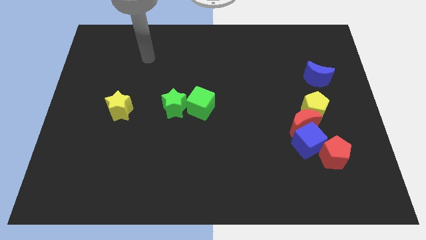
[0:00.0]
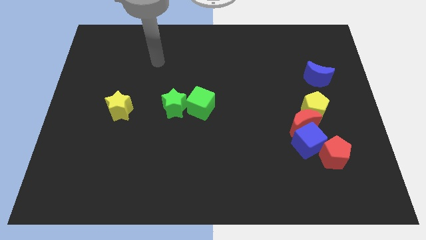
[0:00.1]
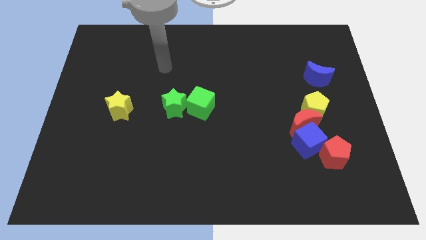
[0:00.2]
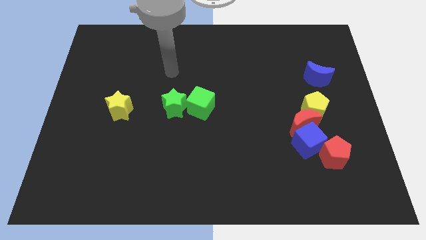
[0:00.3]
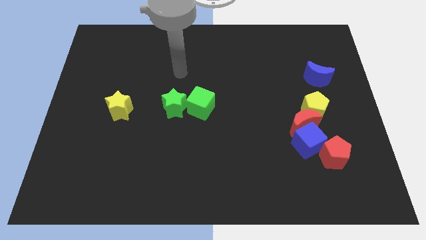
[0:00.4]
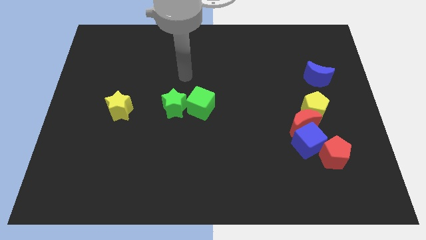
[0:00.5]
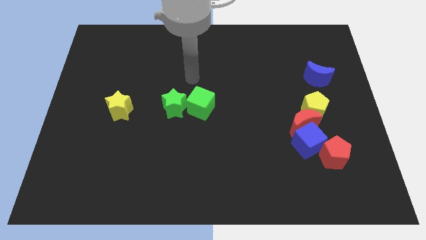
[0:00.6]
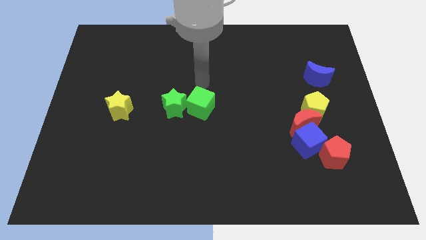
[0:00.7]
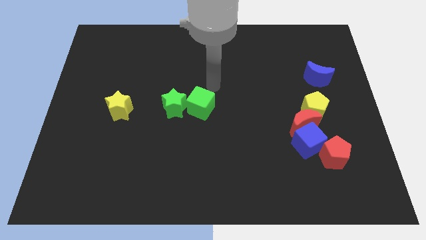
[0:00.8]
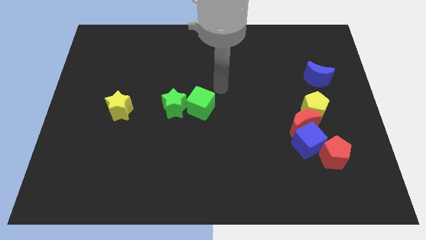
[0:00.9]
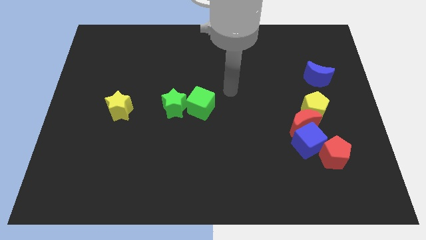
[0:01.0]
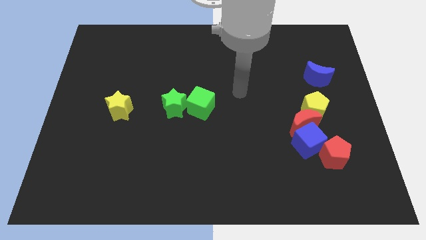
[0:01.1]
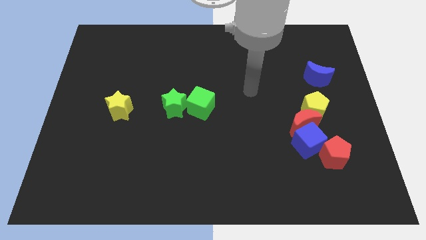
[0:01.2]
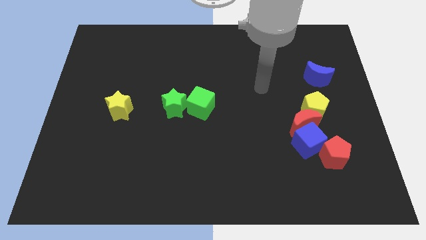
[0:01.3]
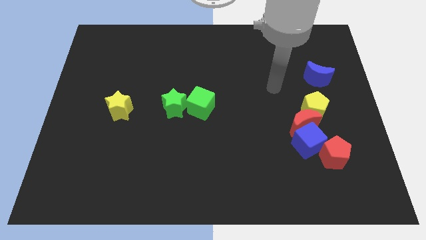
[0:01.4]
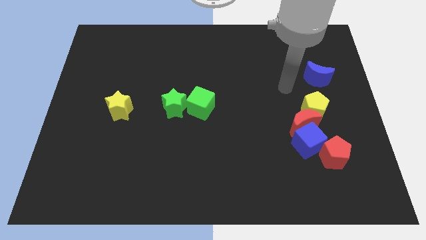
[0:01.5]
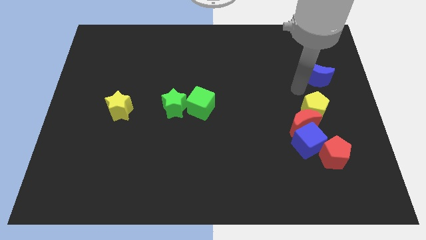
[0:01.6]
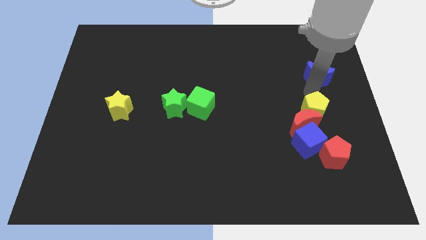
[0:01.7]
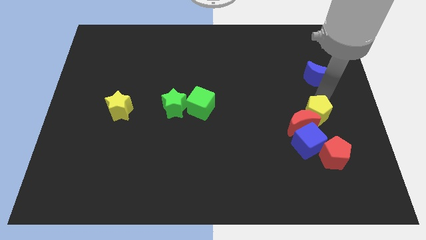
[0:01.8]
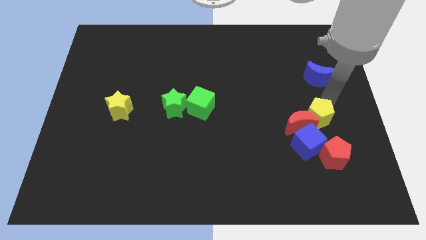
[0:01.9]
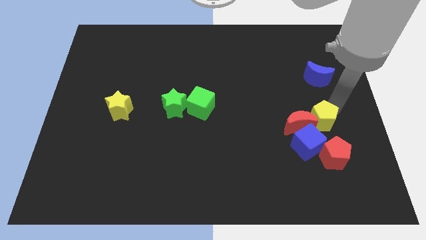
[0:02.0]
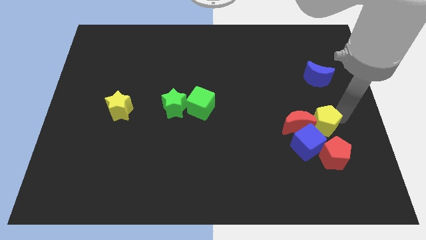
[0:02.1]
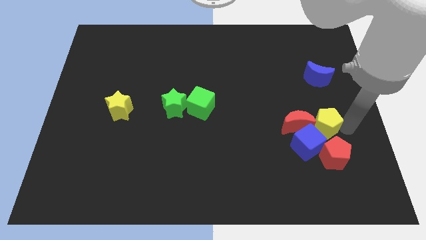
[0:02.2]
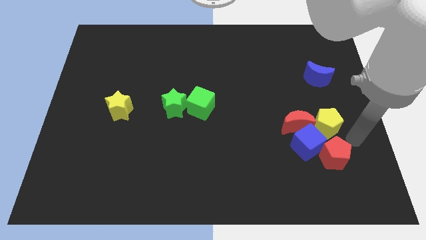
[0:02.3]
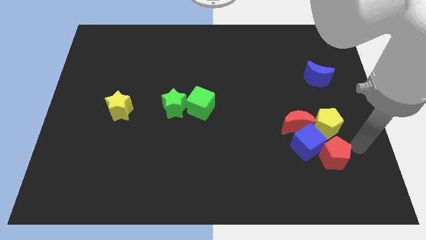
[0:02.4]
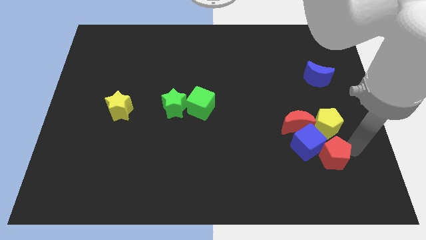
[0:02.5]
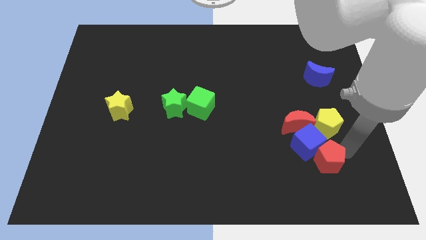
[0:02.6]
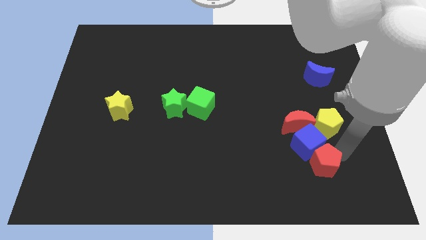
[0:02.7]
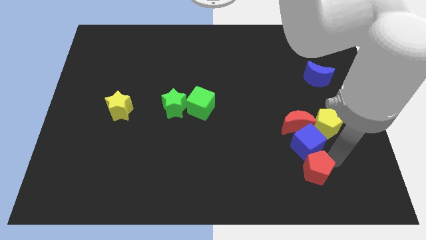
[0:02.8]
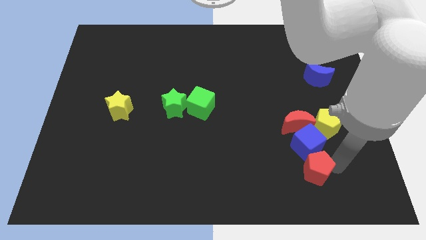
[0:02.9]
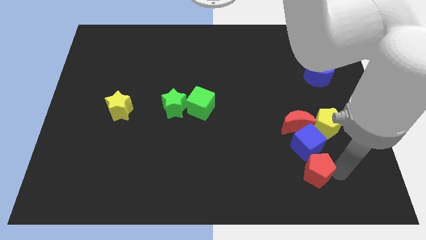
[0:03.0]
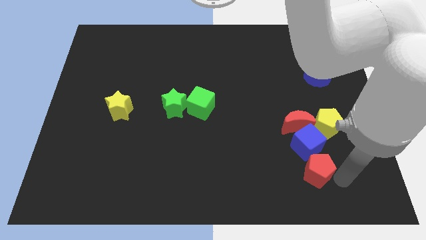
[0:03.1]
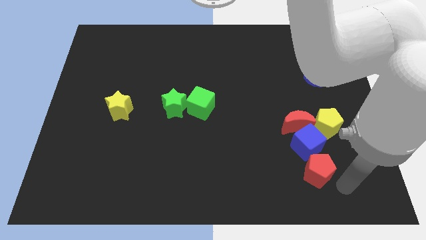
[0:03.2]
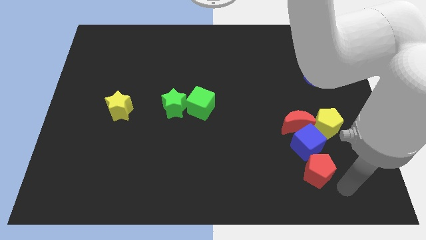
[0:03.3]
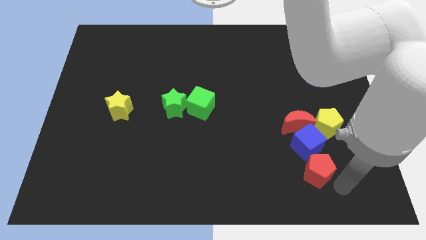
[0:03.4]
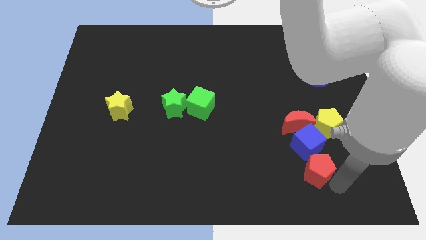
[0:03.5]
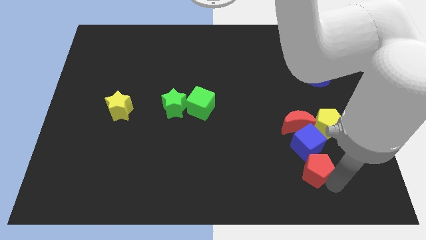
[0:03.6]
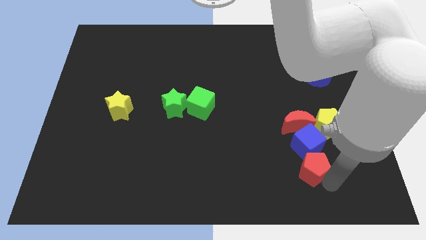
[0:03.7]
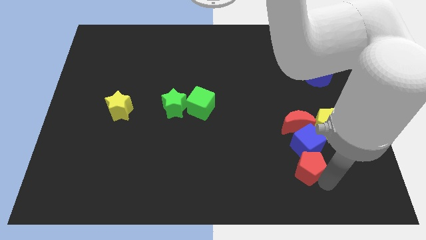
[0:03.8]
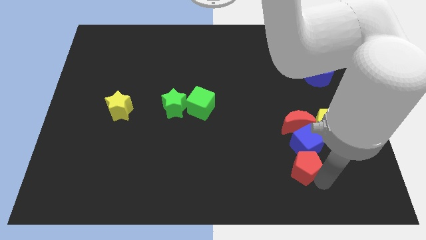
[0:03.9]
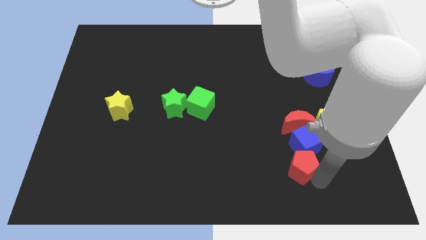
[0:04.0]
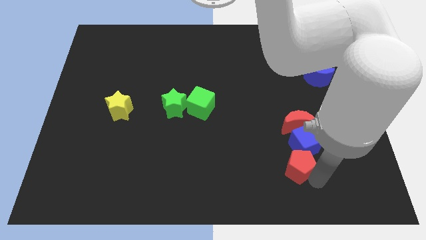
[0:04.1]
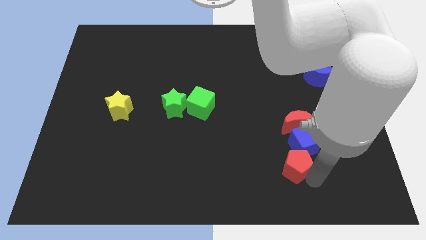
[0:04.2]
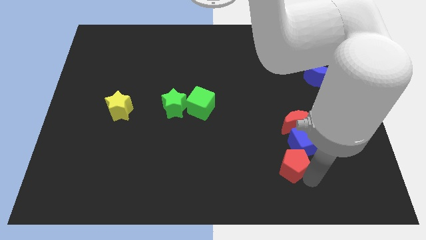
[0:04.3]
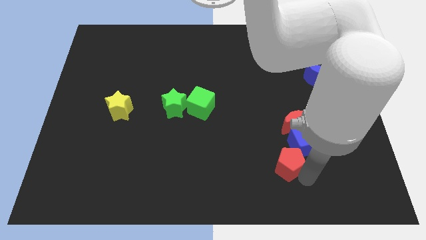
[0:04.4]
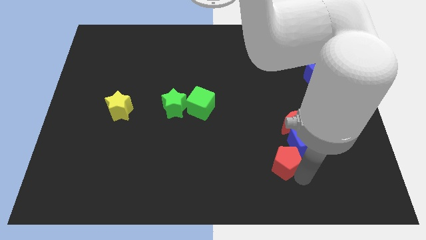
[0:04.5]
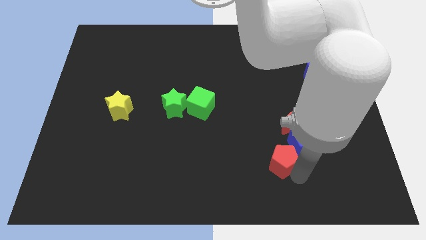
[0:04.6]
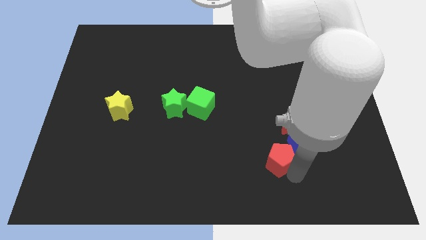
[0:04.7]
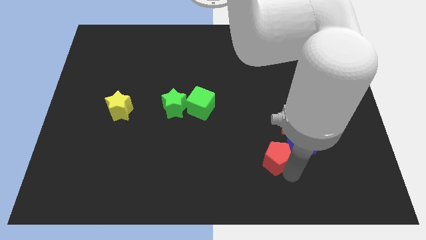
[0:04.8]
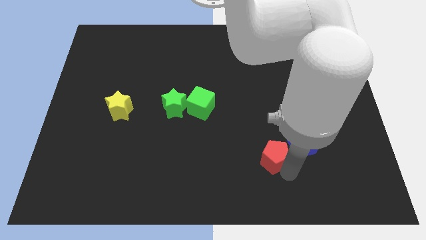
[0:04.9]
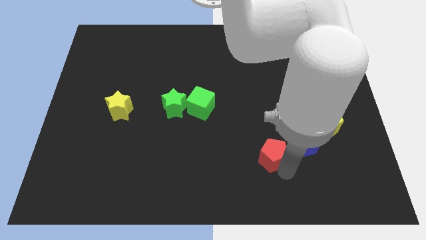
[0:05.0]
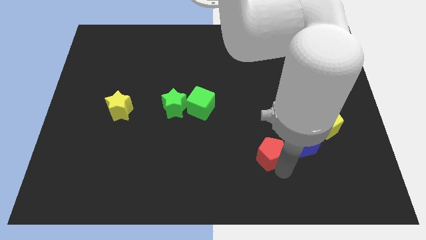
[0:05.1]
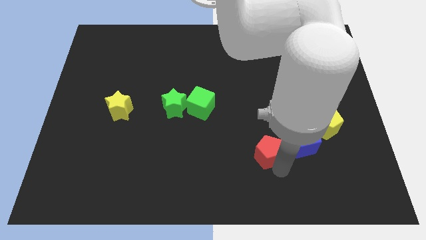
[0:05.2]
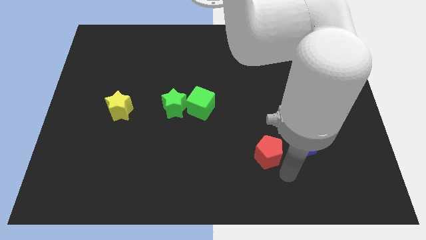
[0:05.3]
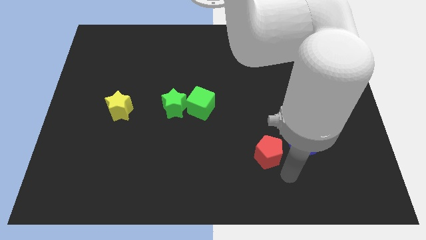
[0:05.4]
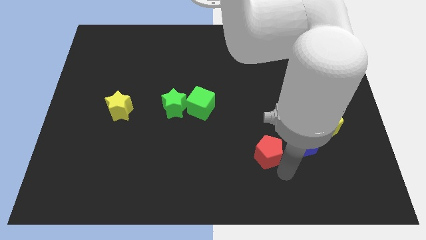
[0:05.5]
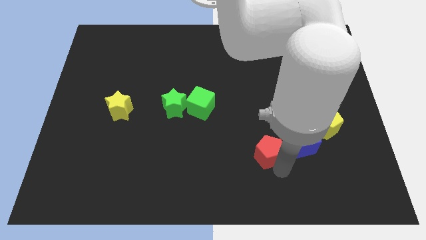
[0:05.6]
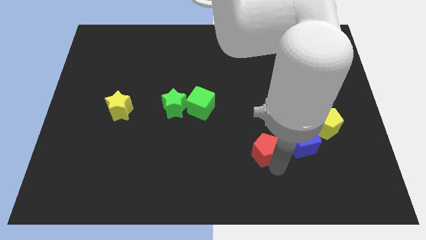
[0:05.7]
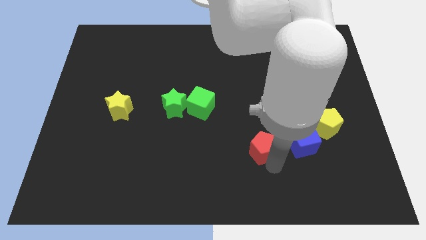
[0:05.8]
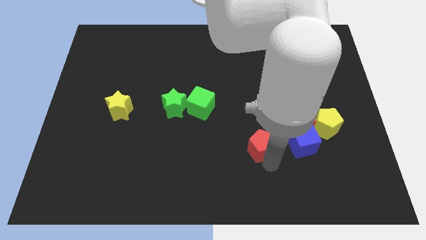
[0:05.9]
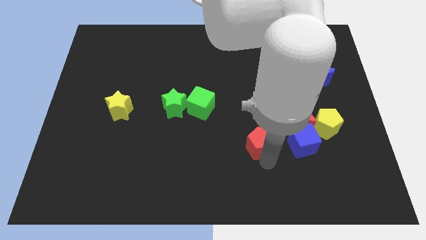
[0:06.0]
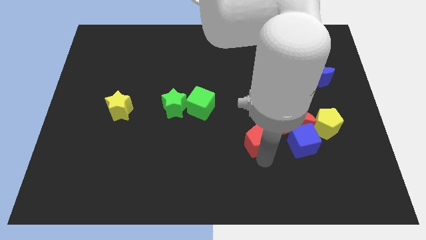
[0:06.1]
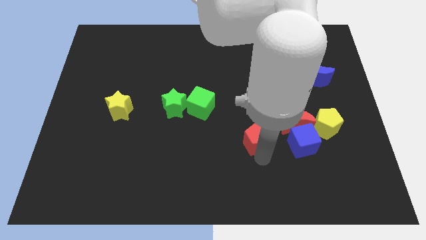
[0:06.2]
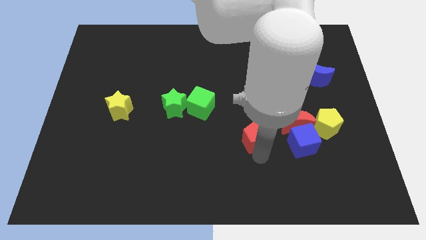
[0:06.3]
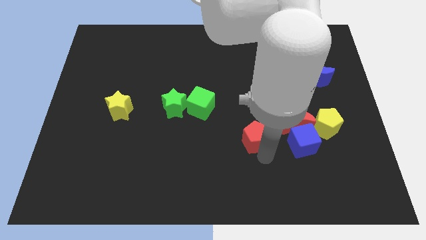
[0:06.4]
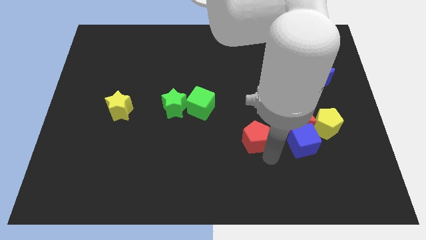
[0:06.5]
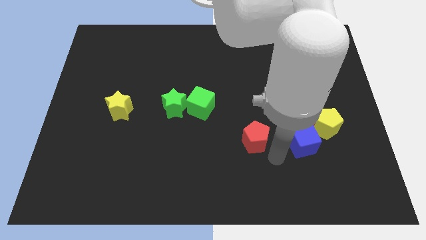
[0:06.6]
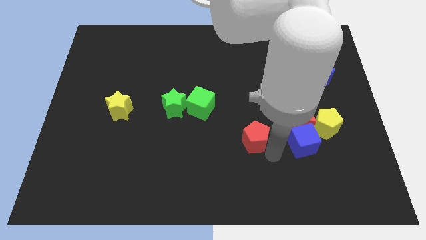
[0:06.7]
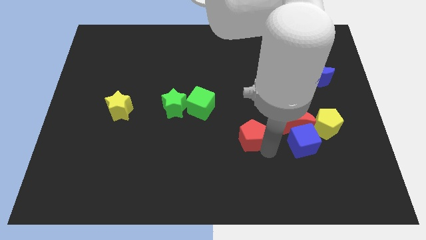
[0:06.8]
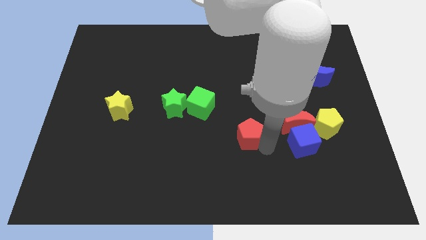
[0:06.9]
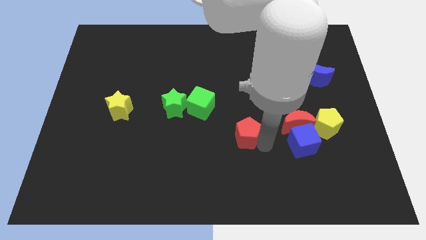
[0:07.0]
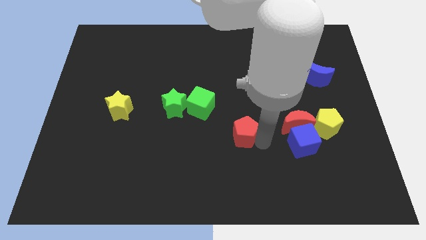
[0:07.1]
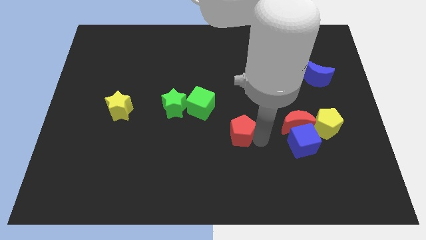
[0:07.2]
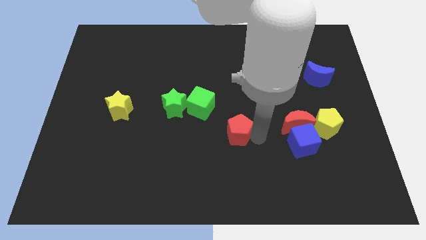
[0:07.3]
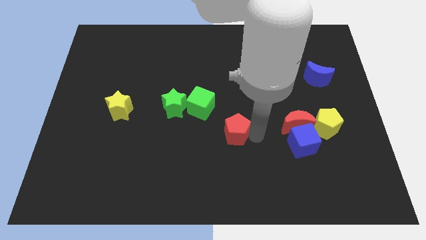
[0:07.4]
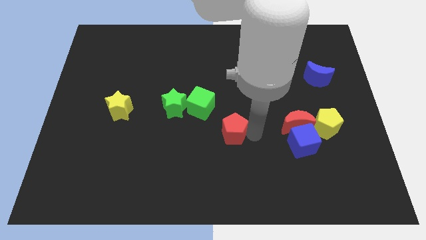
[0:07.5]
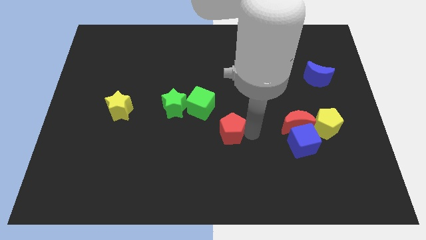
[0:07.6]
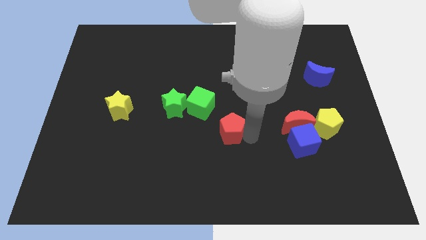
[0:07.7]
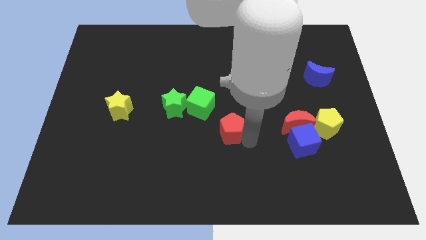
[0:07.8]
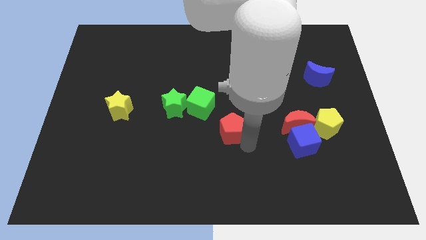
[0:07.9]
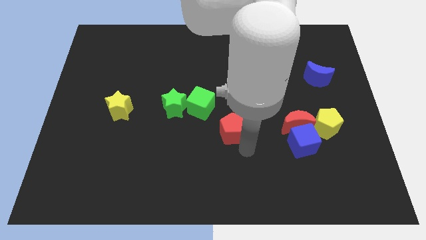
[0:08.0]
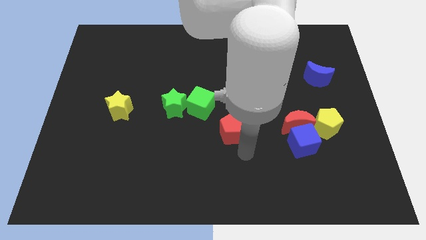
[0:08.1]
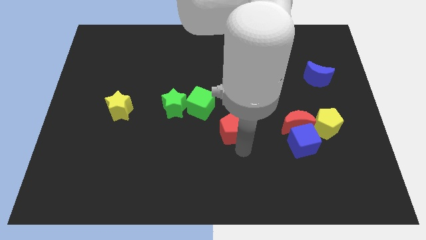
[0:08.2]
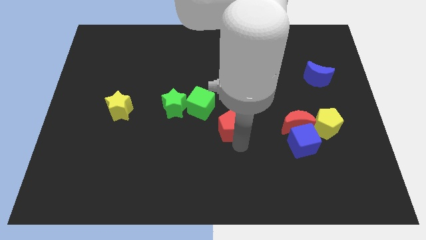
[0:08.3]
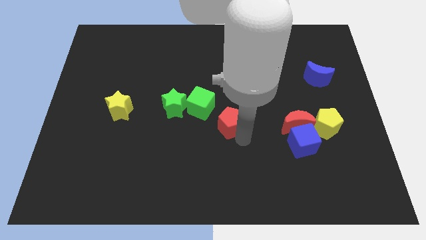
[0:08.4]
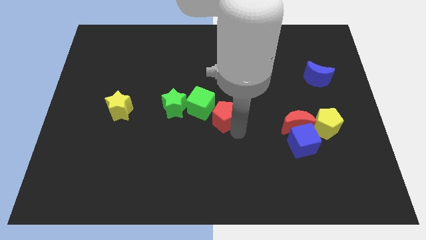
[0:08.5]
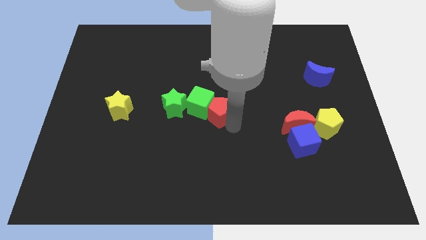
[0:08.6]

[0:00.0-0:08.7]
slide the red pentagon next to the green cube
